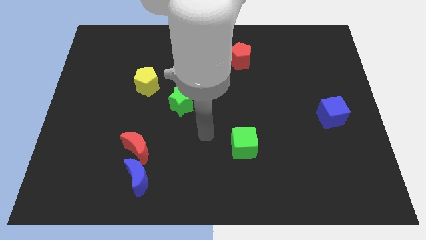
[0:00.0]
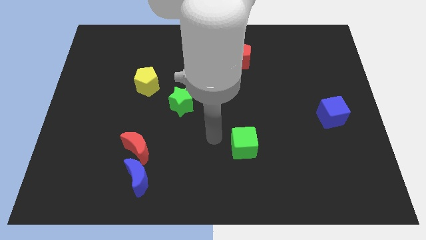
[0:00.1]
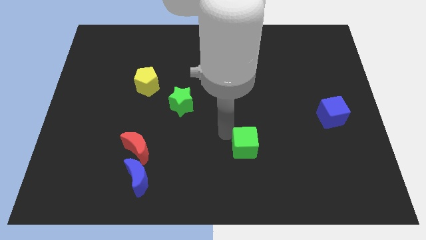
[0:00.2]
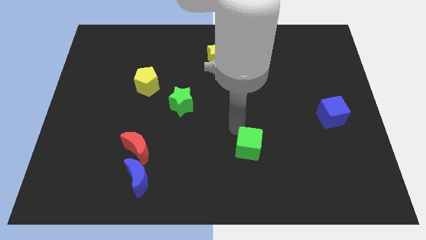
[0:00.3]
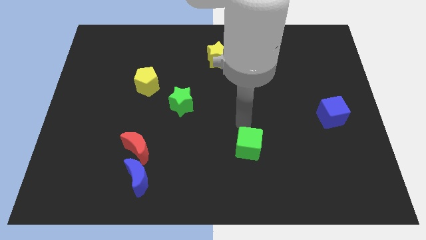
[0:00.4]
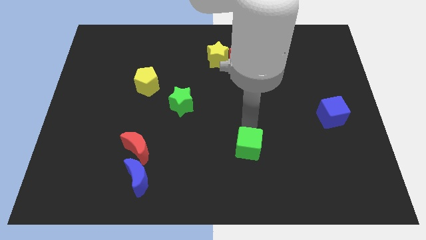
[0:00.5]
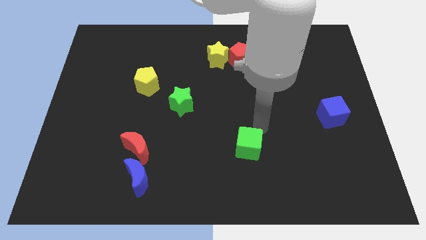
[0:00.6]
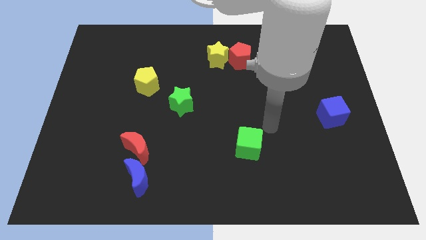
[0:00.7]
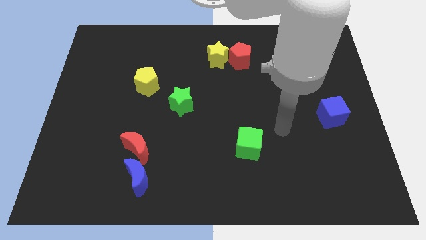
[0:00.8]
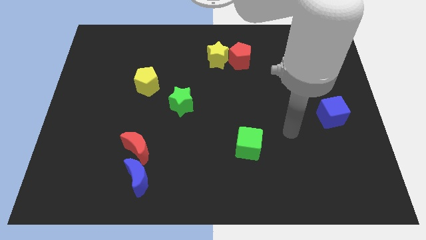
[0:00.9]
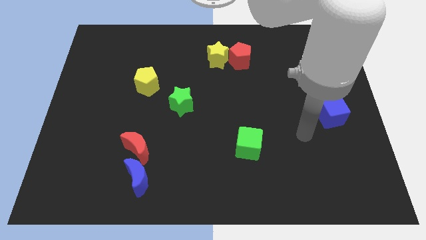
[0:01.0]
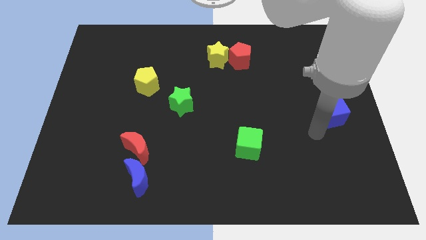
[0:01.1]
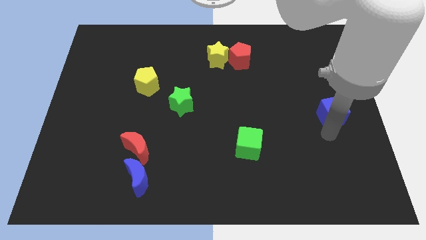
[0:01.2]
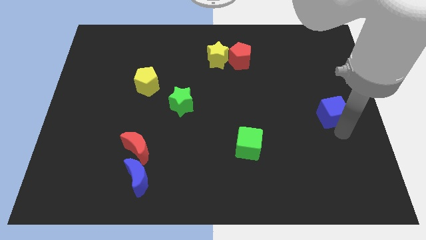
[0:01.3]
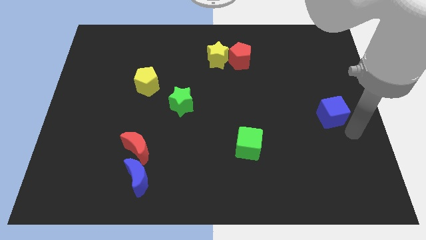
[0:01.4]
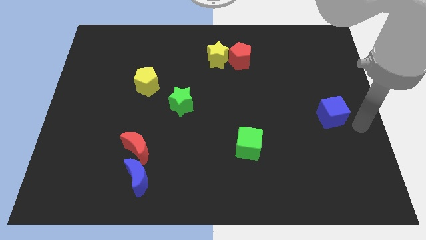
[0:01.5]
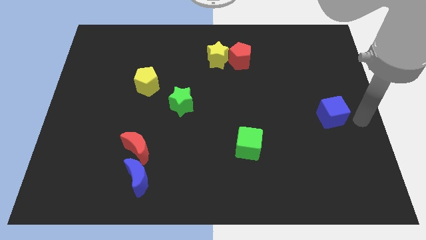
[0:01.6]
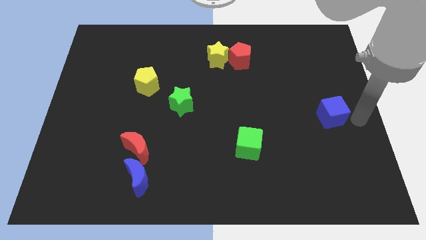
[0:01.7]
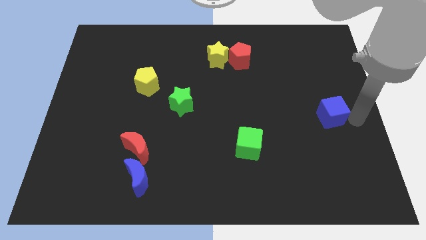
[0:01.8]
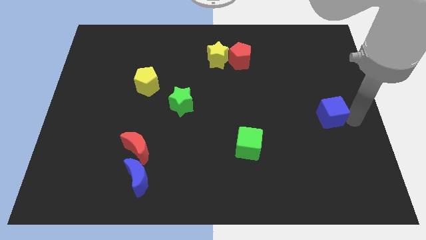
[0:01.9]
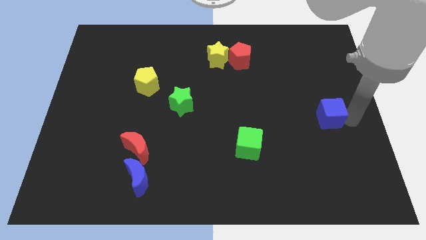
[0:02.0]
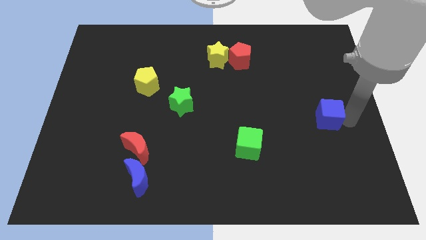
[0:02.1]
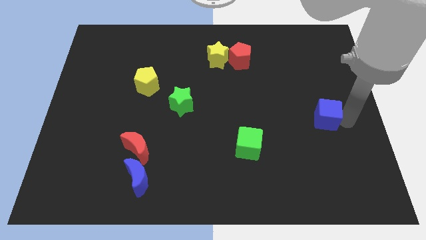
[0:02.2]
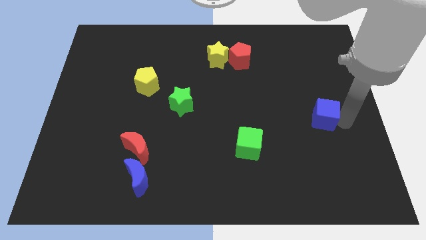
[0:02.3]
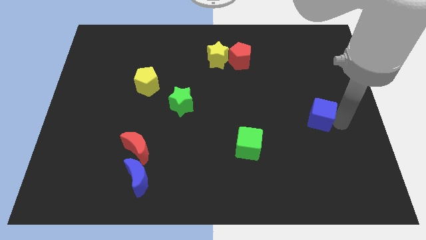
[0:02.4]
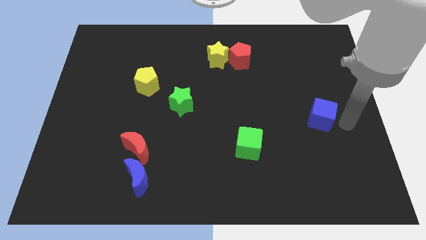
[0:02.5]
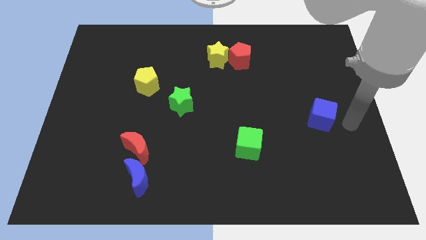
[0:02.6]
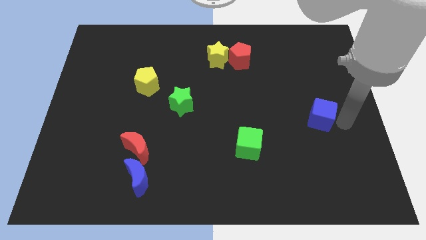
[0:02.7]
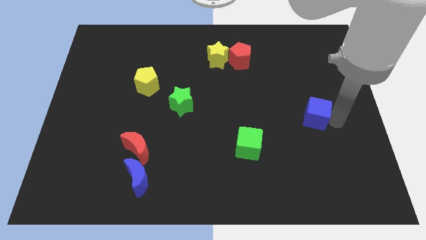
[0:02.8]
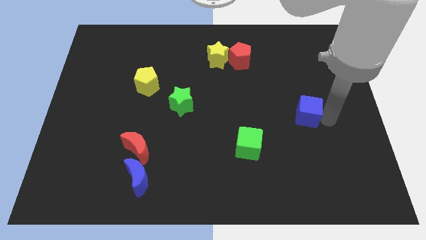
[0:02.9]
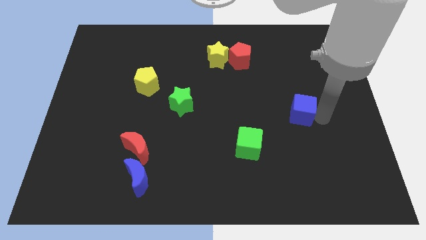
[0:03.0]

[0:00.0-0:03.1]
slightly slide the blue cube left

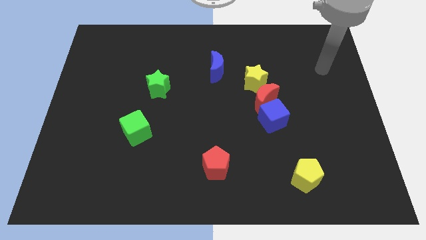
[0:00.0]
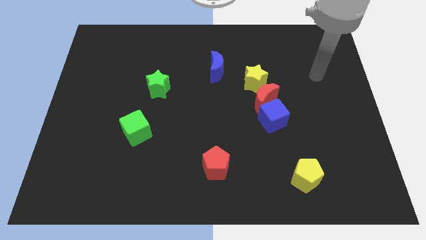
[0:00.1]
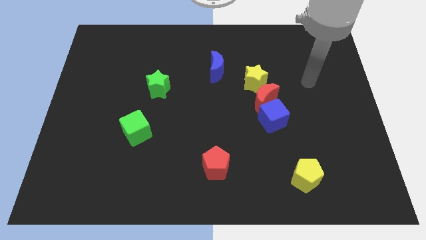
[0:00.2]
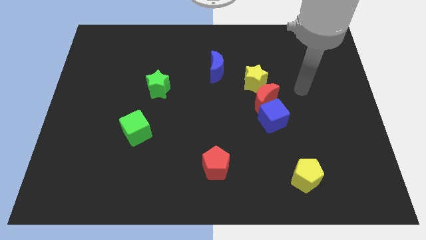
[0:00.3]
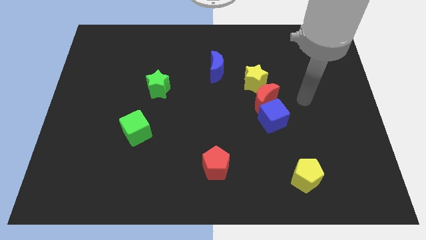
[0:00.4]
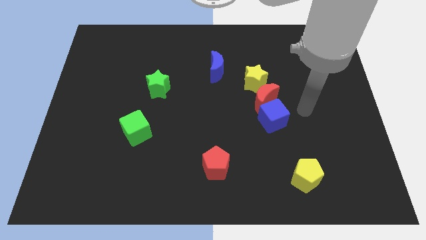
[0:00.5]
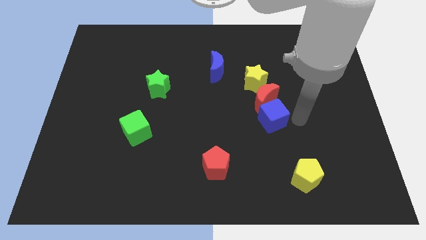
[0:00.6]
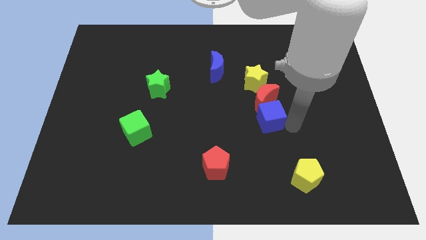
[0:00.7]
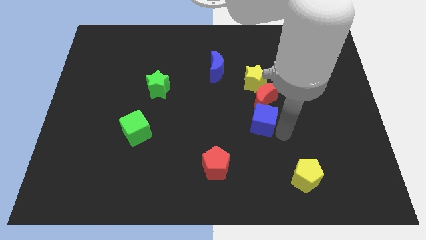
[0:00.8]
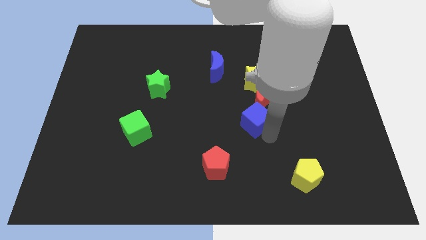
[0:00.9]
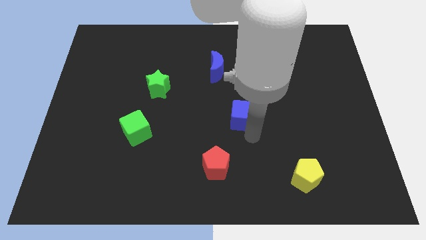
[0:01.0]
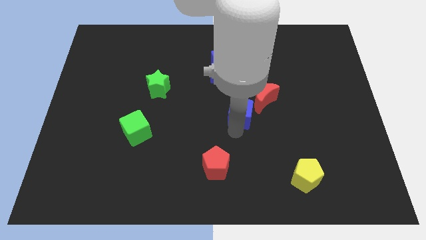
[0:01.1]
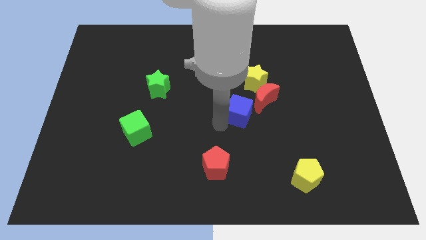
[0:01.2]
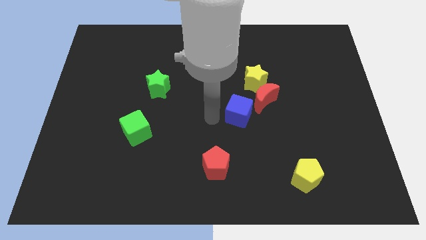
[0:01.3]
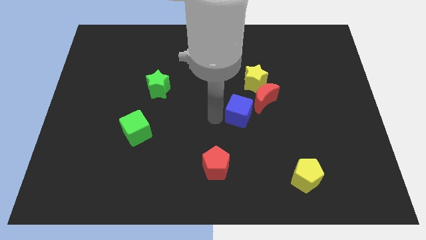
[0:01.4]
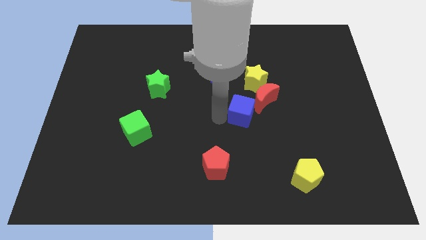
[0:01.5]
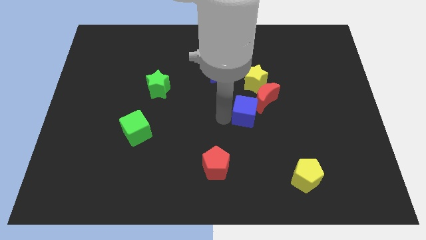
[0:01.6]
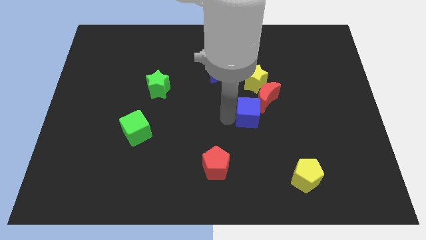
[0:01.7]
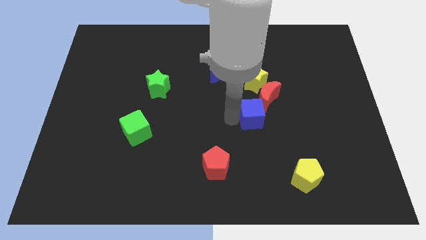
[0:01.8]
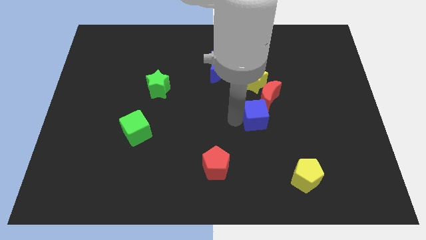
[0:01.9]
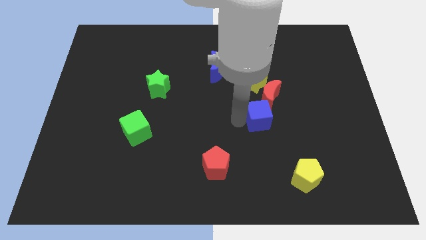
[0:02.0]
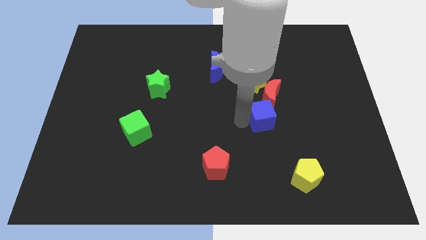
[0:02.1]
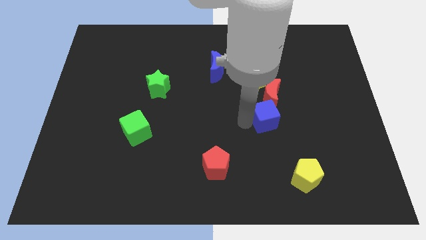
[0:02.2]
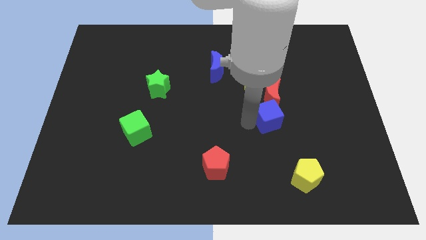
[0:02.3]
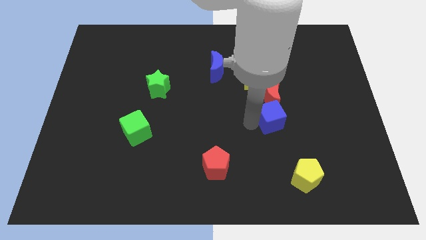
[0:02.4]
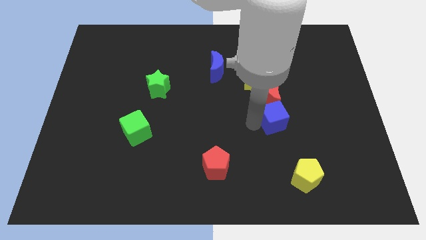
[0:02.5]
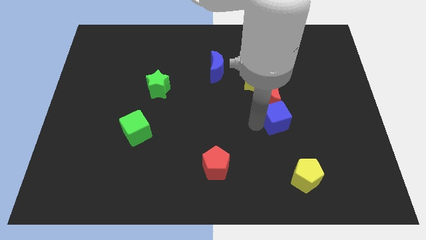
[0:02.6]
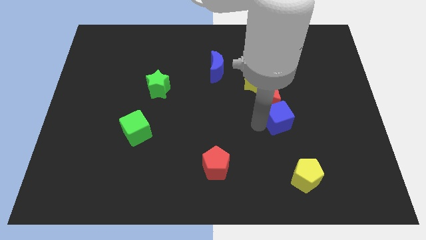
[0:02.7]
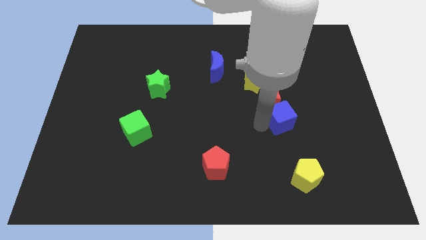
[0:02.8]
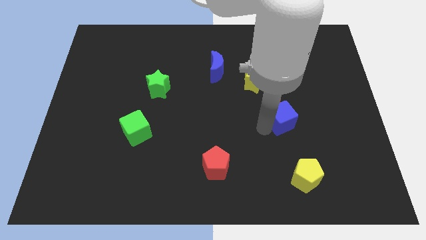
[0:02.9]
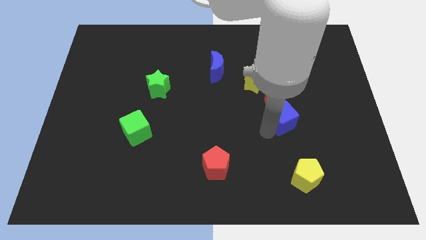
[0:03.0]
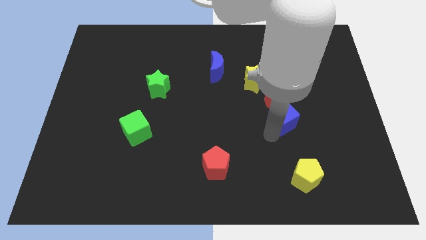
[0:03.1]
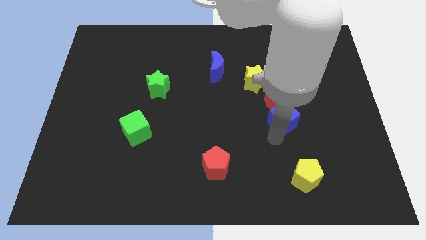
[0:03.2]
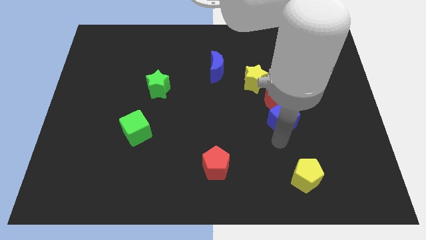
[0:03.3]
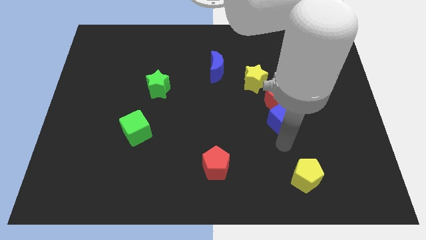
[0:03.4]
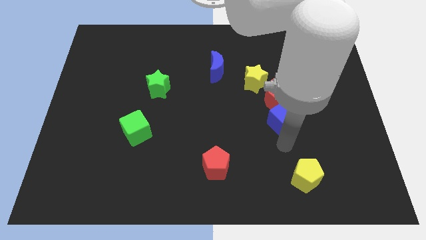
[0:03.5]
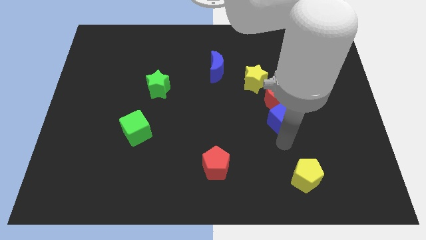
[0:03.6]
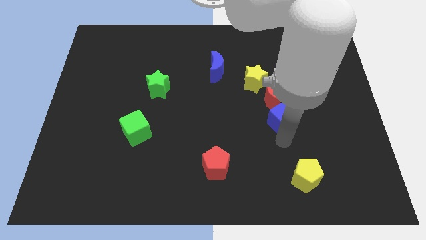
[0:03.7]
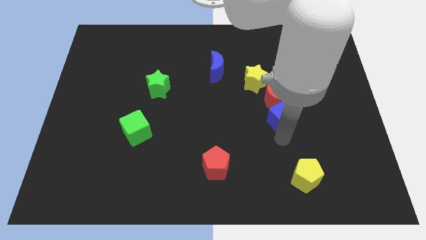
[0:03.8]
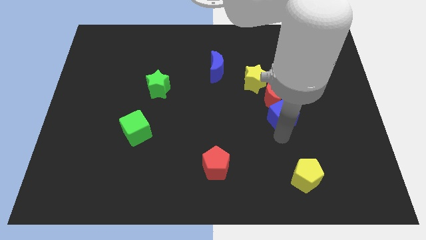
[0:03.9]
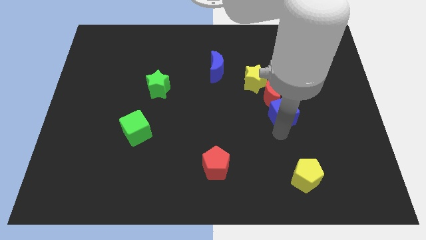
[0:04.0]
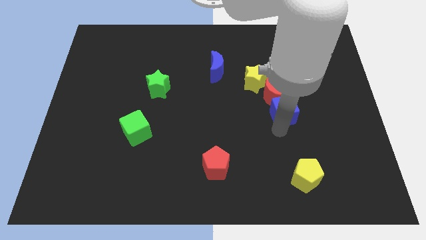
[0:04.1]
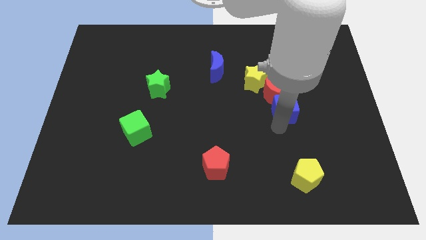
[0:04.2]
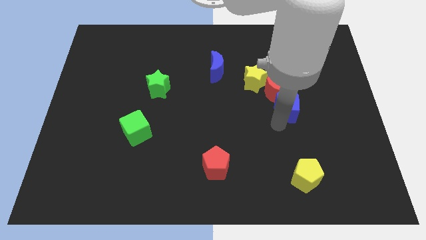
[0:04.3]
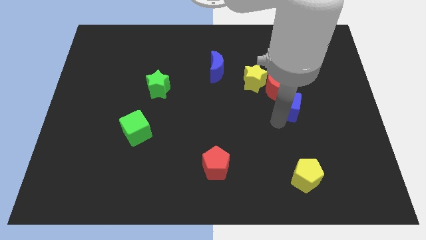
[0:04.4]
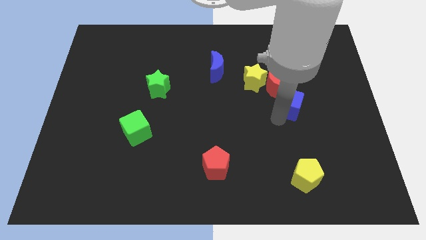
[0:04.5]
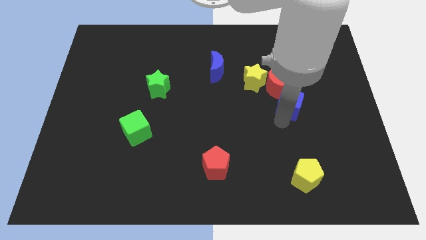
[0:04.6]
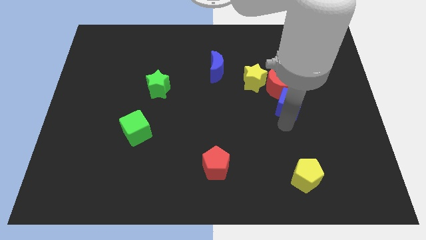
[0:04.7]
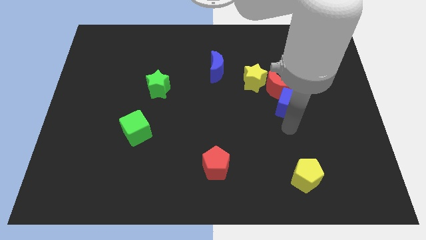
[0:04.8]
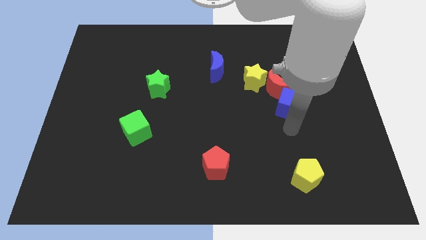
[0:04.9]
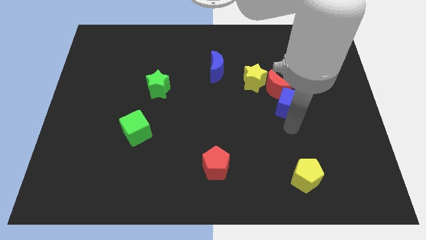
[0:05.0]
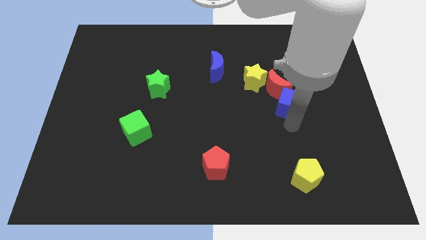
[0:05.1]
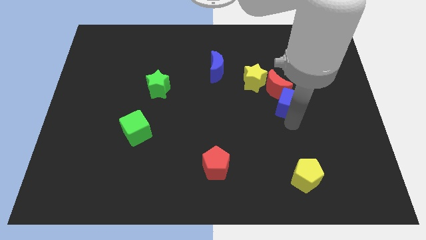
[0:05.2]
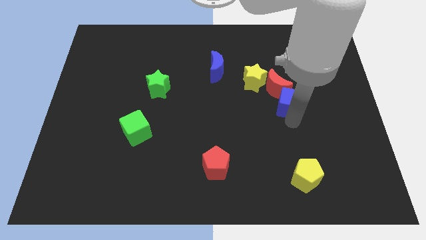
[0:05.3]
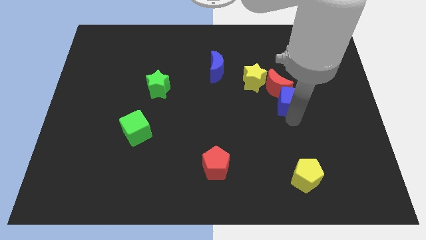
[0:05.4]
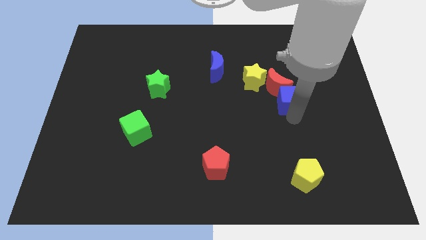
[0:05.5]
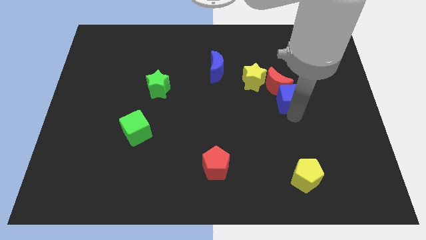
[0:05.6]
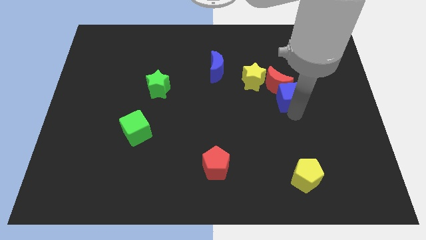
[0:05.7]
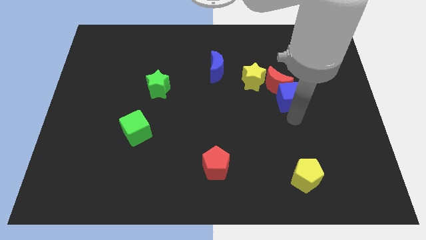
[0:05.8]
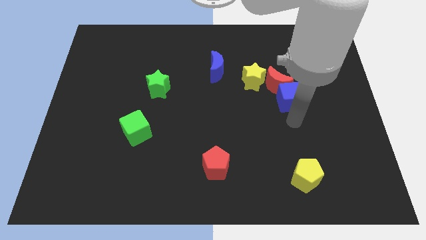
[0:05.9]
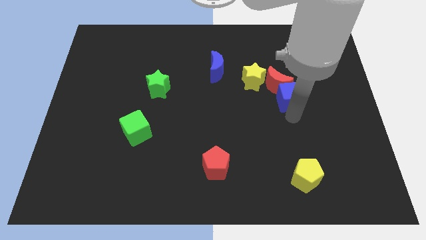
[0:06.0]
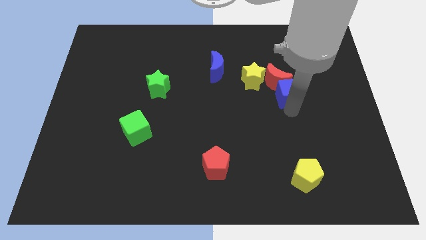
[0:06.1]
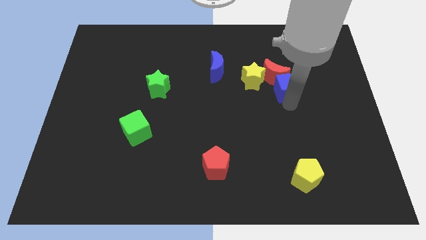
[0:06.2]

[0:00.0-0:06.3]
push the blue cube a little bit upwards
